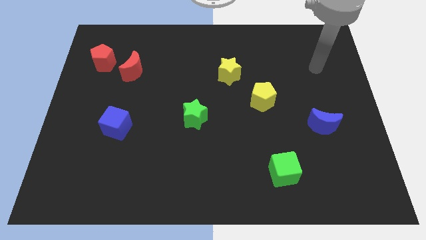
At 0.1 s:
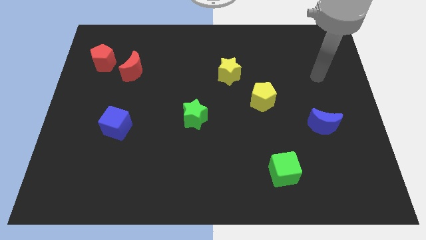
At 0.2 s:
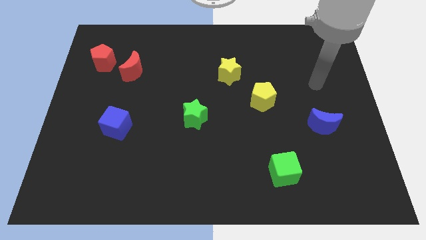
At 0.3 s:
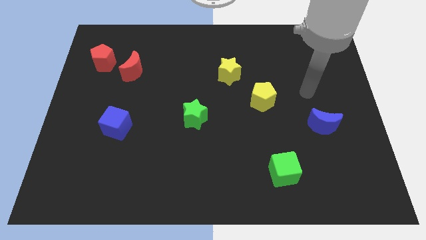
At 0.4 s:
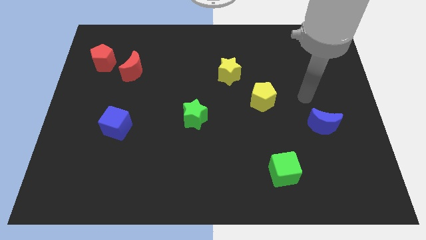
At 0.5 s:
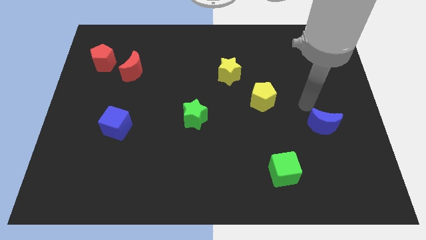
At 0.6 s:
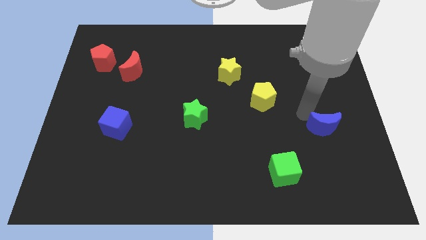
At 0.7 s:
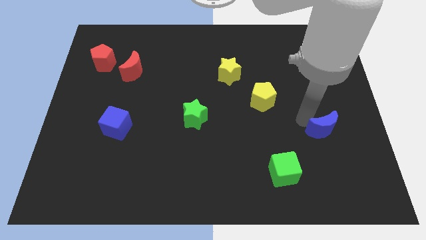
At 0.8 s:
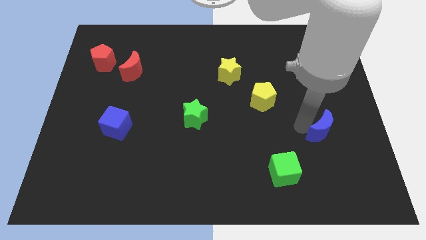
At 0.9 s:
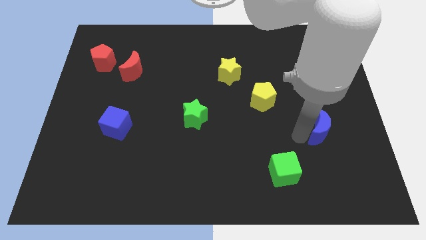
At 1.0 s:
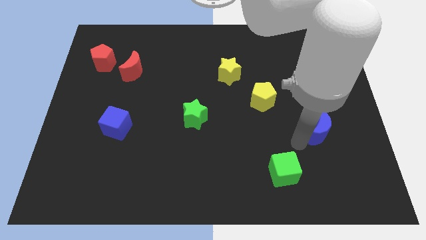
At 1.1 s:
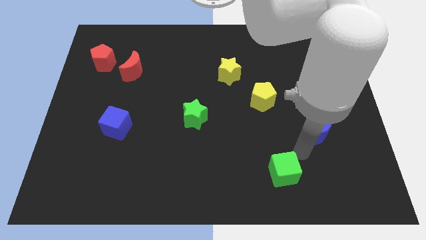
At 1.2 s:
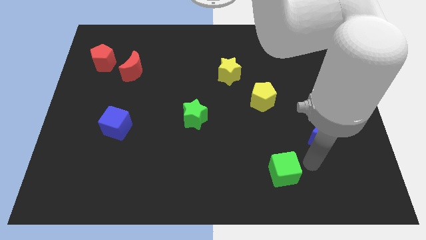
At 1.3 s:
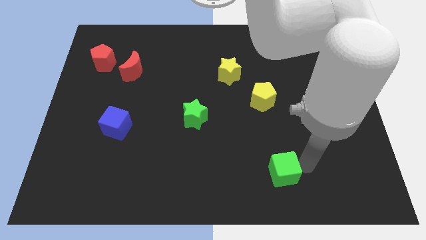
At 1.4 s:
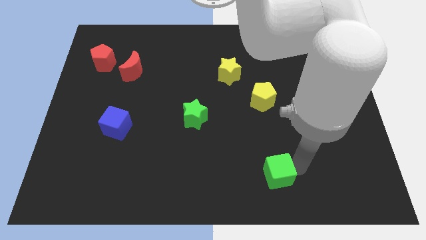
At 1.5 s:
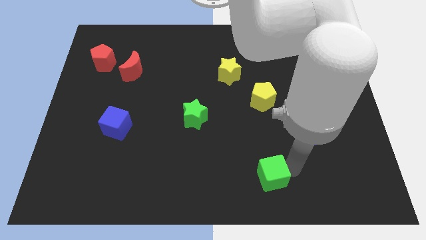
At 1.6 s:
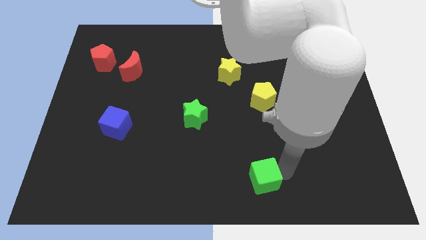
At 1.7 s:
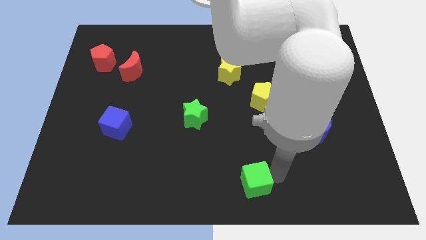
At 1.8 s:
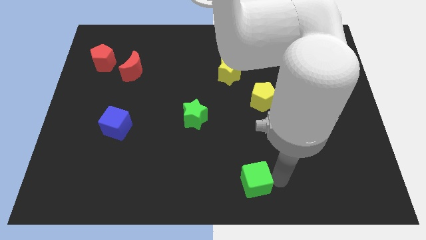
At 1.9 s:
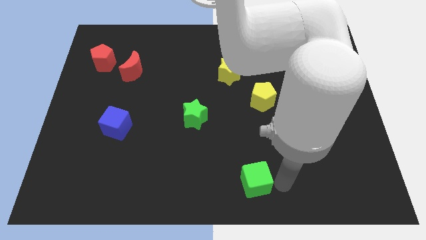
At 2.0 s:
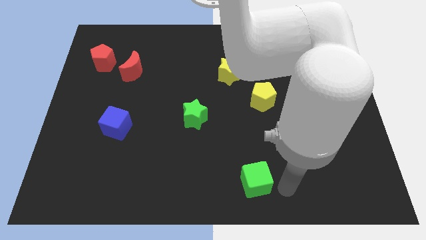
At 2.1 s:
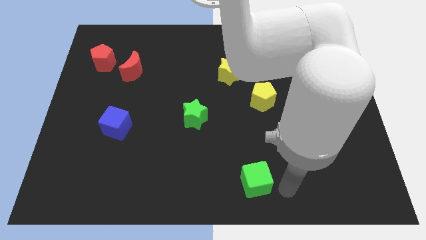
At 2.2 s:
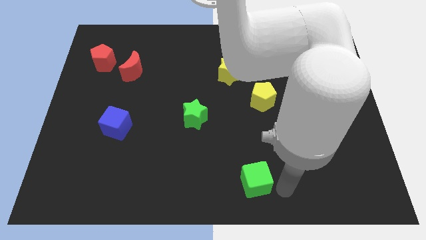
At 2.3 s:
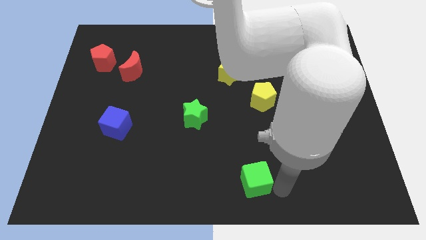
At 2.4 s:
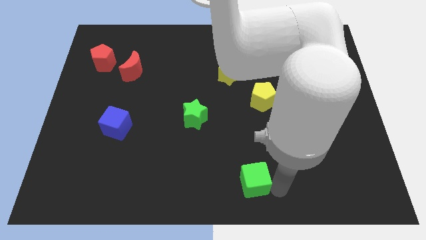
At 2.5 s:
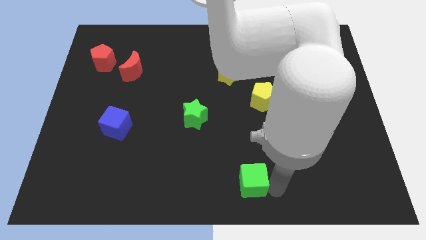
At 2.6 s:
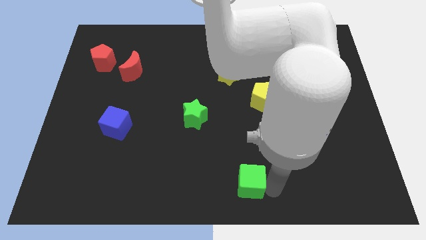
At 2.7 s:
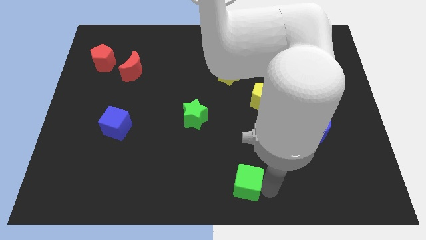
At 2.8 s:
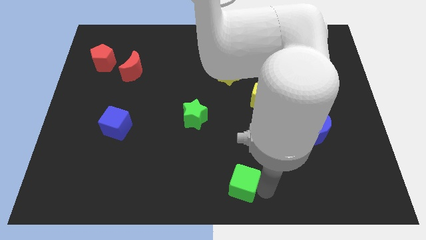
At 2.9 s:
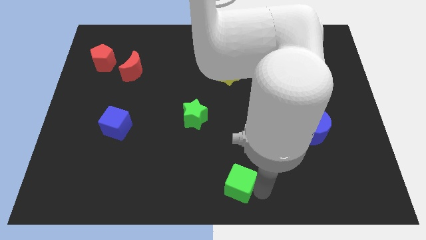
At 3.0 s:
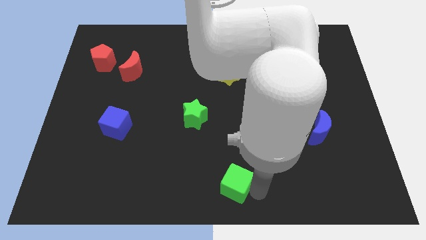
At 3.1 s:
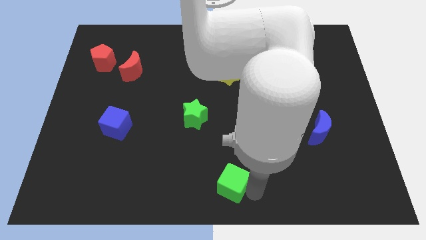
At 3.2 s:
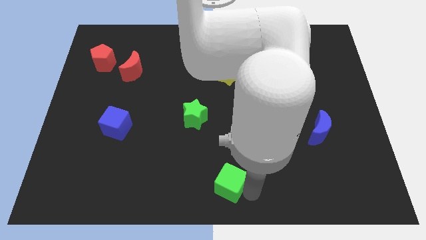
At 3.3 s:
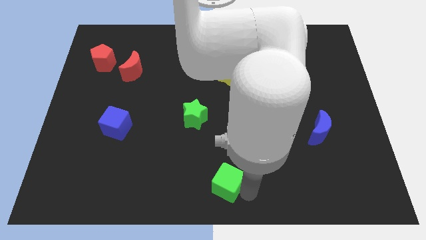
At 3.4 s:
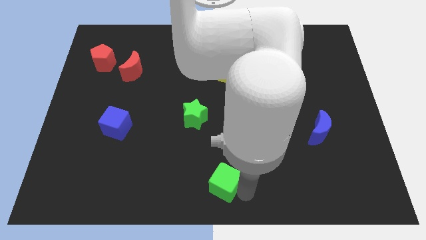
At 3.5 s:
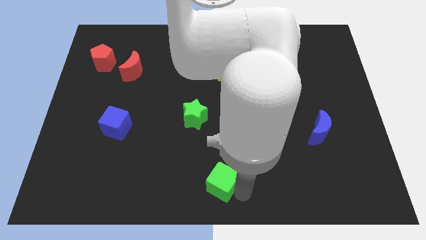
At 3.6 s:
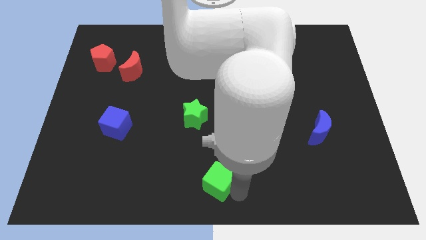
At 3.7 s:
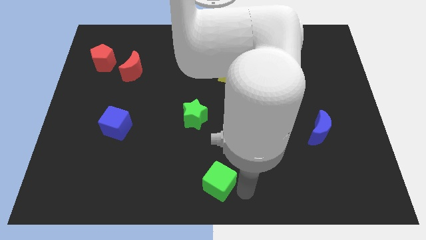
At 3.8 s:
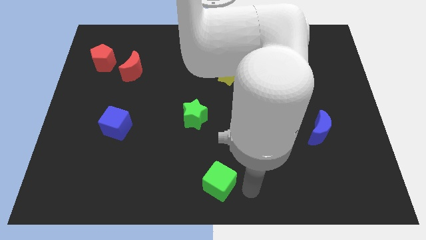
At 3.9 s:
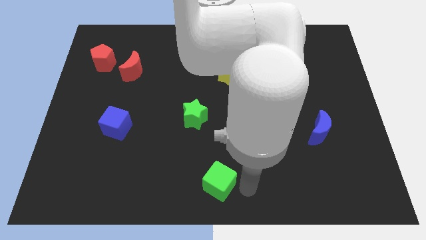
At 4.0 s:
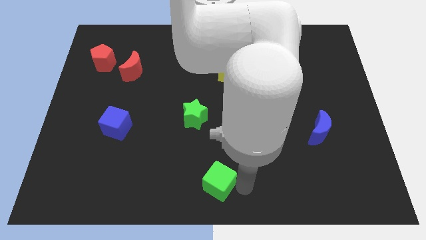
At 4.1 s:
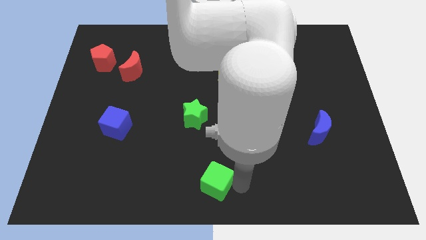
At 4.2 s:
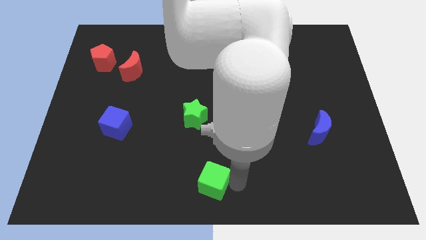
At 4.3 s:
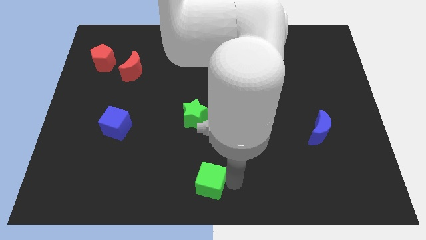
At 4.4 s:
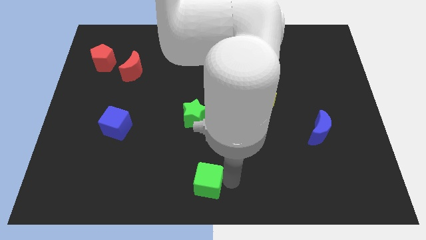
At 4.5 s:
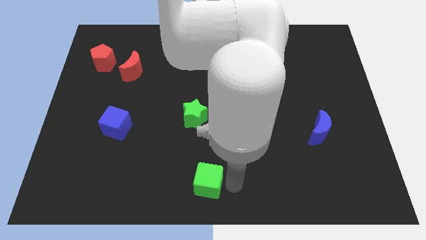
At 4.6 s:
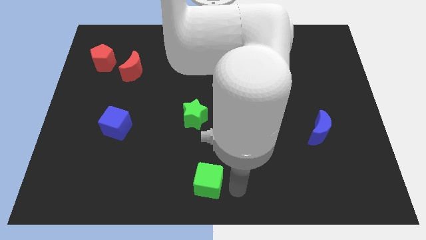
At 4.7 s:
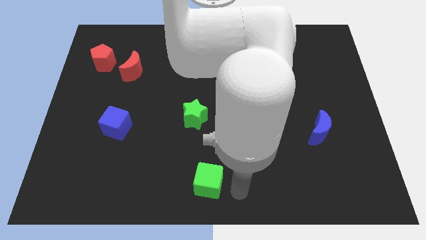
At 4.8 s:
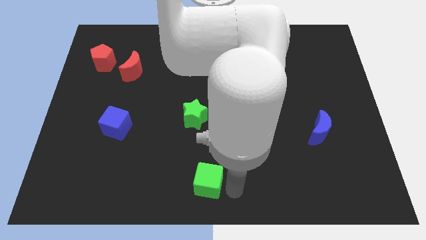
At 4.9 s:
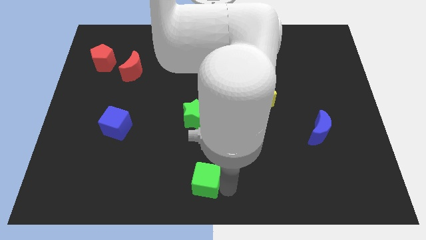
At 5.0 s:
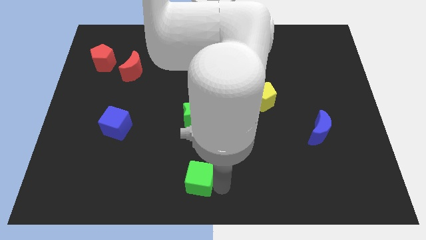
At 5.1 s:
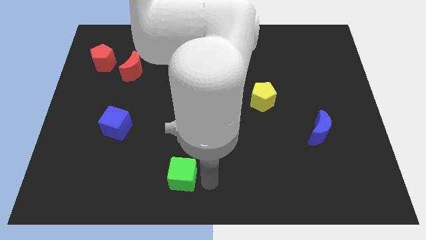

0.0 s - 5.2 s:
slide the green cube to the left

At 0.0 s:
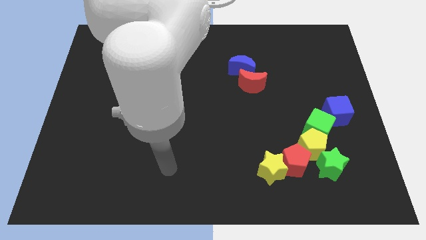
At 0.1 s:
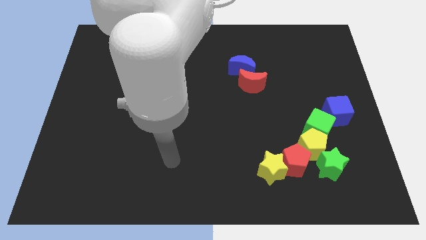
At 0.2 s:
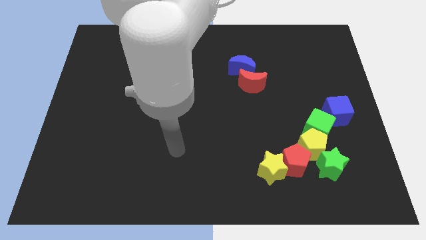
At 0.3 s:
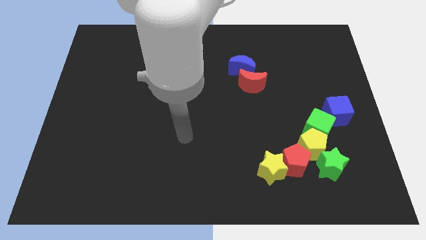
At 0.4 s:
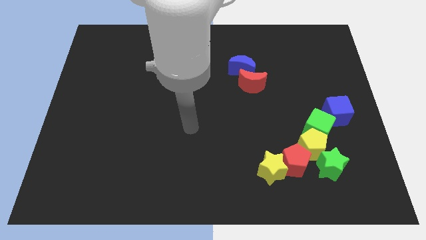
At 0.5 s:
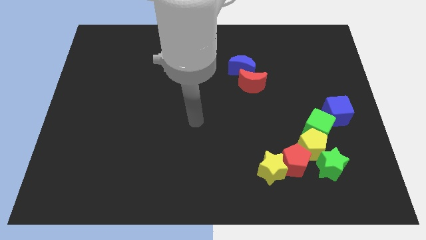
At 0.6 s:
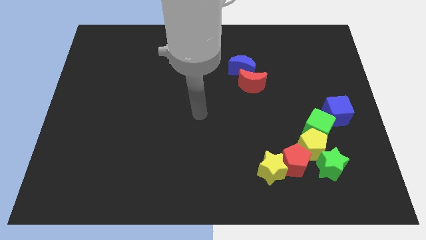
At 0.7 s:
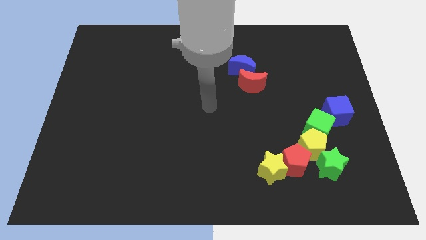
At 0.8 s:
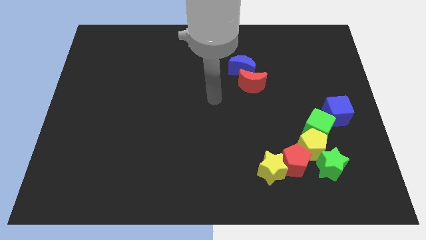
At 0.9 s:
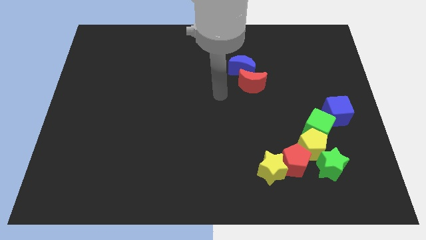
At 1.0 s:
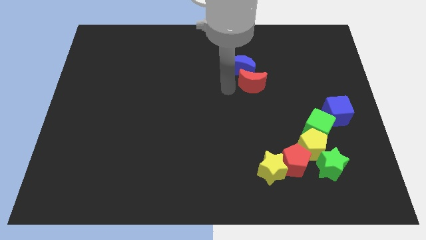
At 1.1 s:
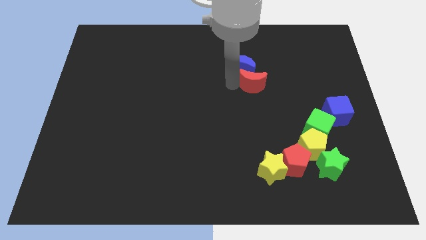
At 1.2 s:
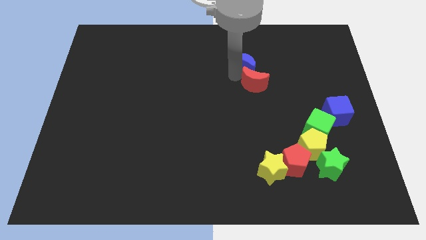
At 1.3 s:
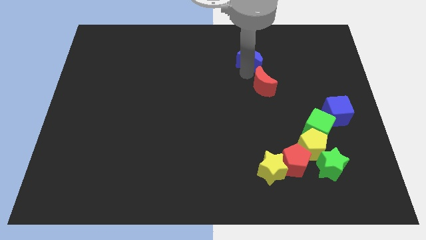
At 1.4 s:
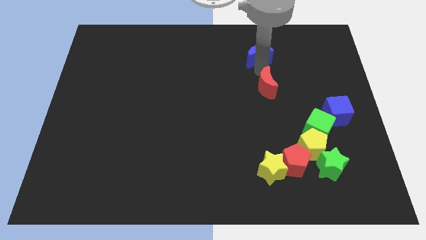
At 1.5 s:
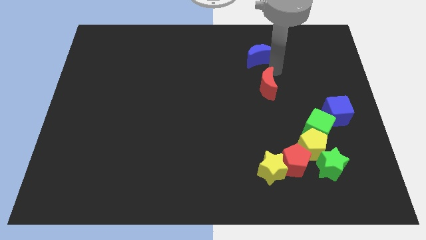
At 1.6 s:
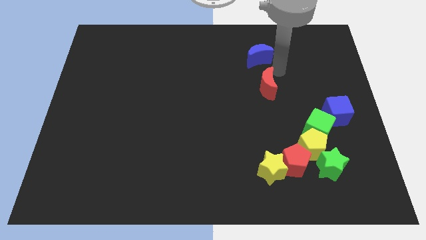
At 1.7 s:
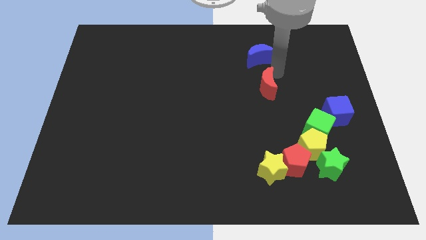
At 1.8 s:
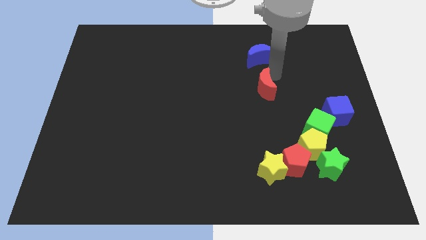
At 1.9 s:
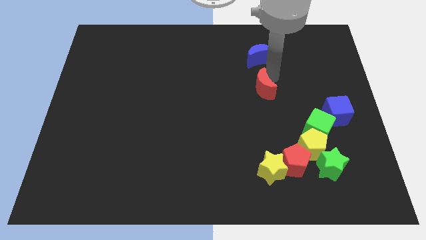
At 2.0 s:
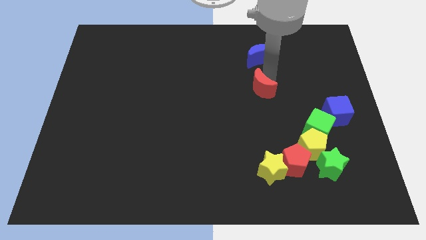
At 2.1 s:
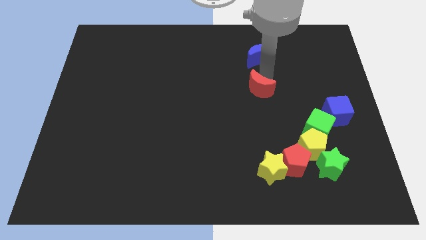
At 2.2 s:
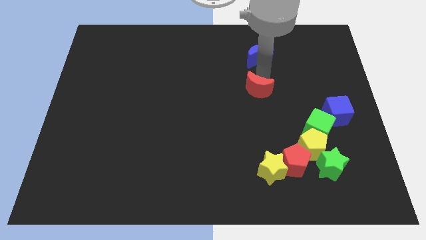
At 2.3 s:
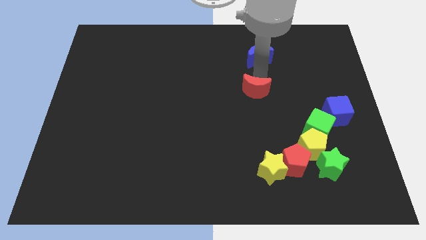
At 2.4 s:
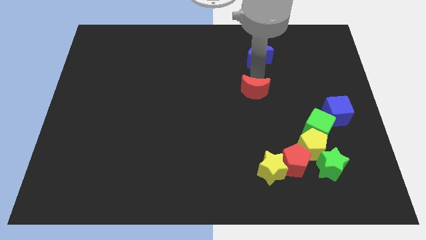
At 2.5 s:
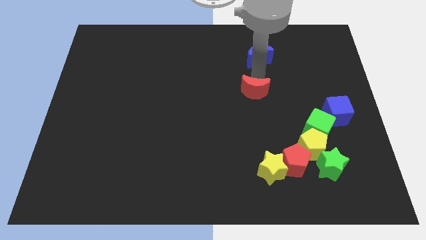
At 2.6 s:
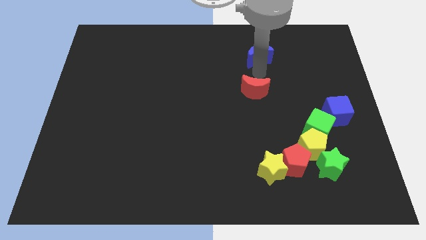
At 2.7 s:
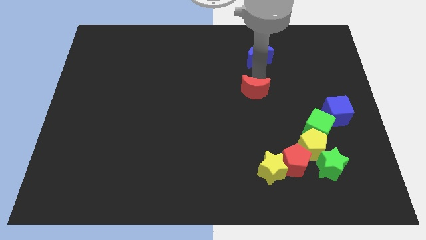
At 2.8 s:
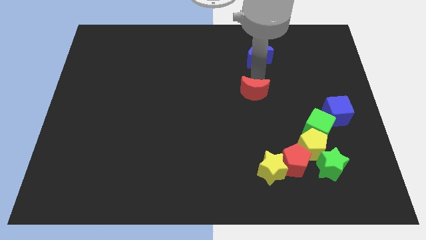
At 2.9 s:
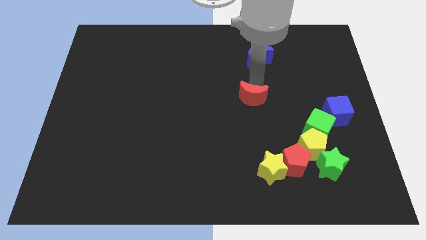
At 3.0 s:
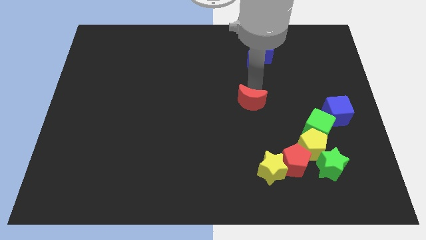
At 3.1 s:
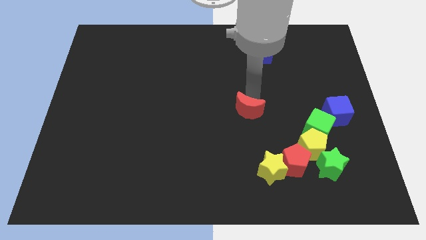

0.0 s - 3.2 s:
slightly slide the red moon down
